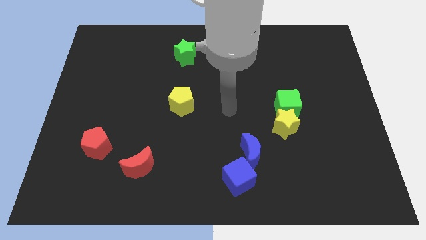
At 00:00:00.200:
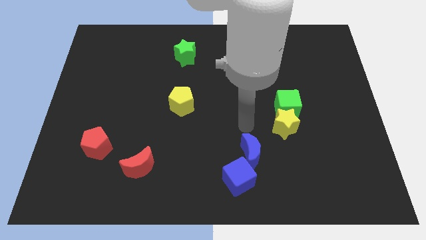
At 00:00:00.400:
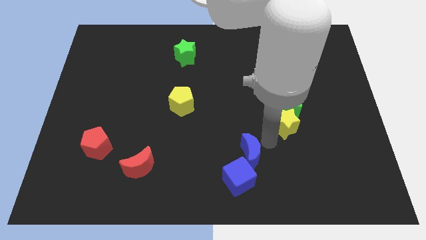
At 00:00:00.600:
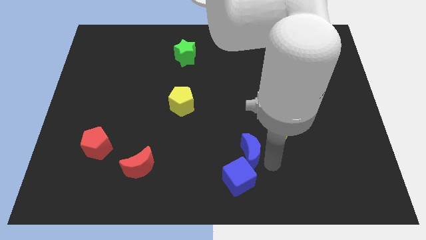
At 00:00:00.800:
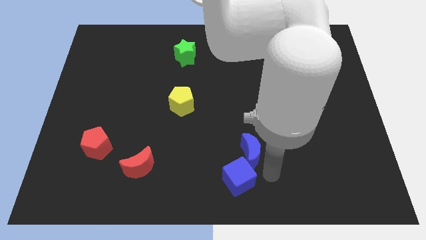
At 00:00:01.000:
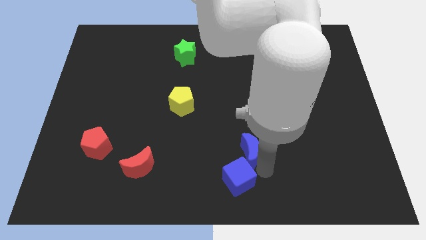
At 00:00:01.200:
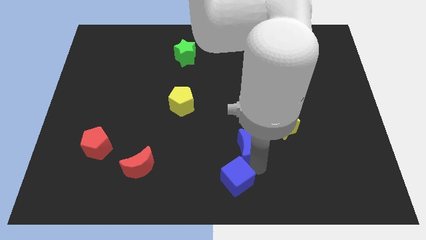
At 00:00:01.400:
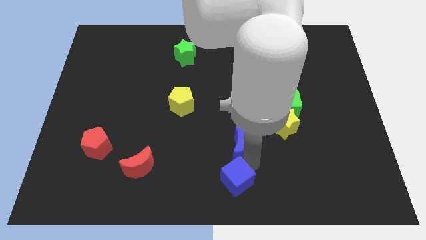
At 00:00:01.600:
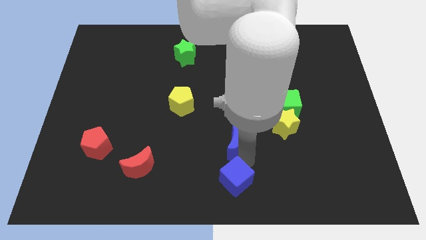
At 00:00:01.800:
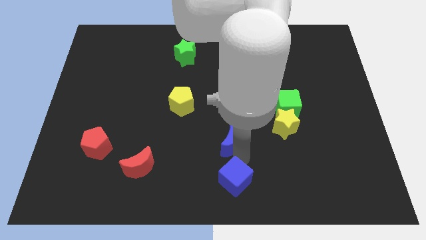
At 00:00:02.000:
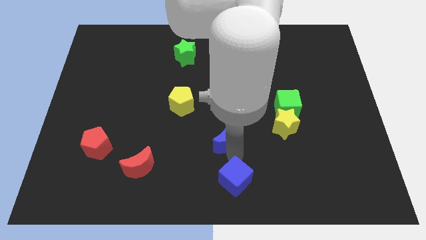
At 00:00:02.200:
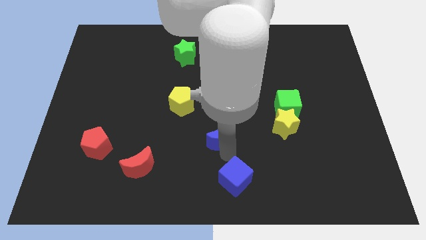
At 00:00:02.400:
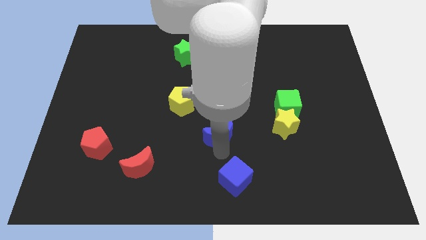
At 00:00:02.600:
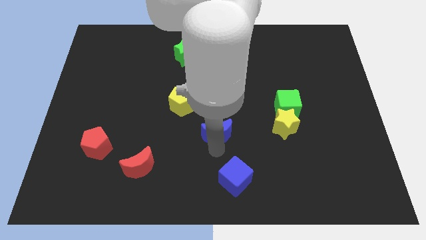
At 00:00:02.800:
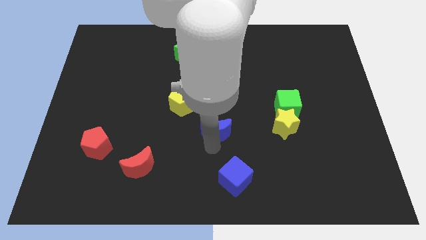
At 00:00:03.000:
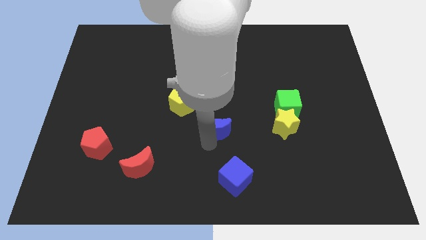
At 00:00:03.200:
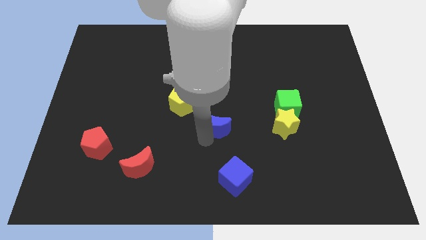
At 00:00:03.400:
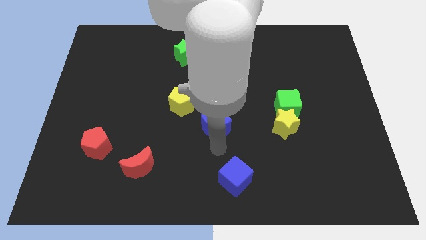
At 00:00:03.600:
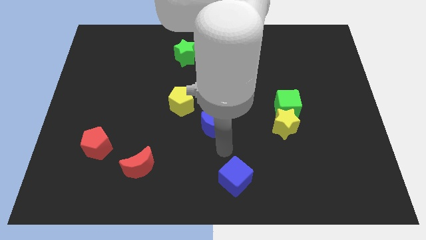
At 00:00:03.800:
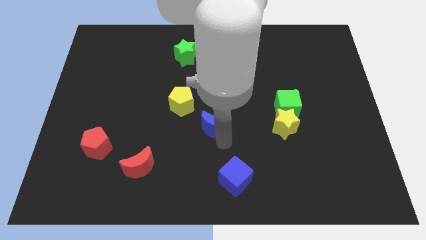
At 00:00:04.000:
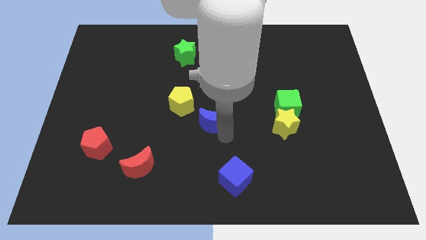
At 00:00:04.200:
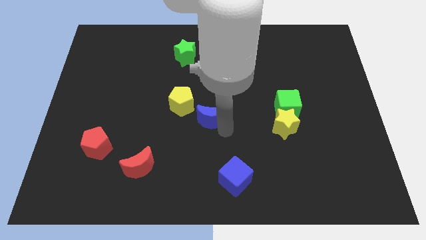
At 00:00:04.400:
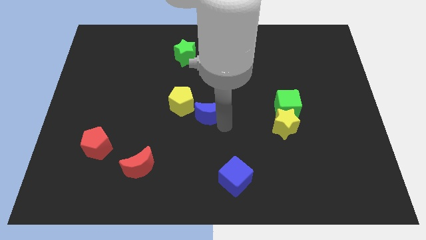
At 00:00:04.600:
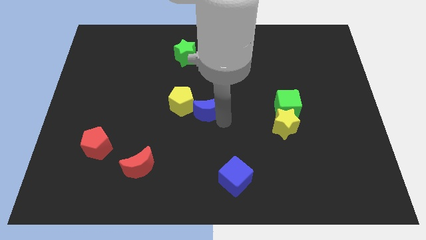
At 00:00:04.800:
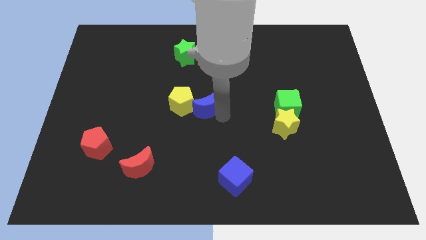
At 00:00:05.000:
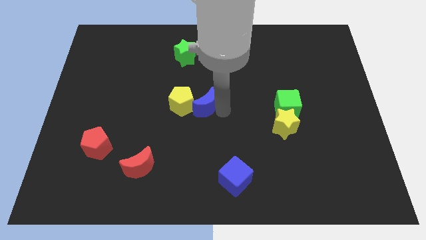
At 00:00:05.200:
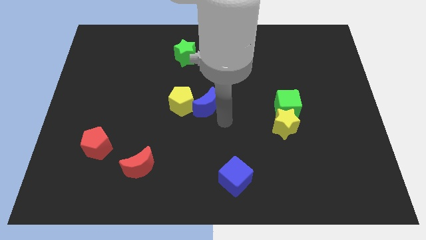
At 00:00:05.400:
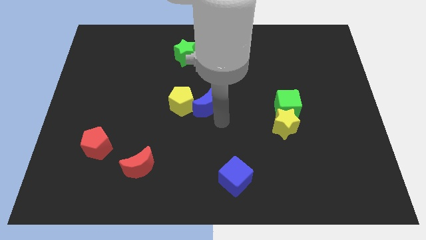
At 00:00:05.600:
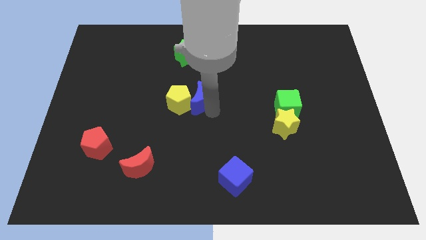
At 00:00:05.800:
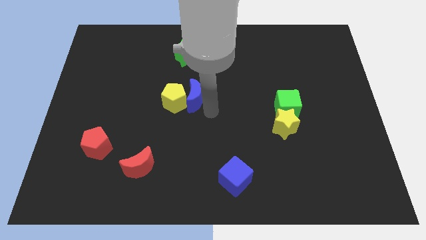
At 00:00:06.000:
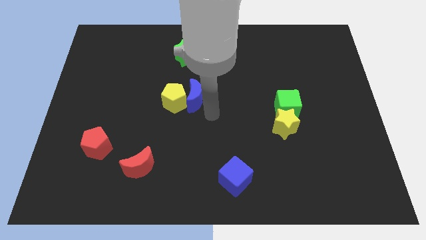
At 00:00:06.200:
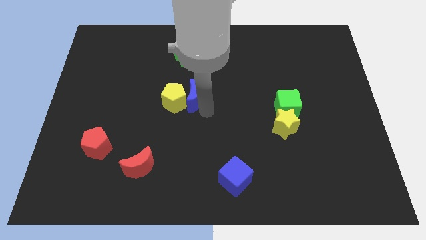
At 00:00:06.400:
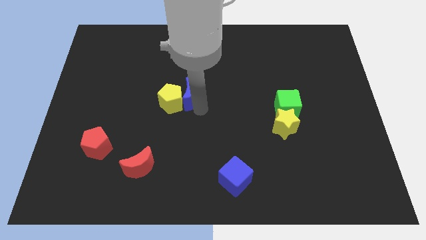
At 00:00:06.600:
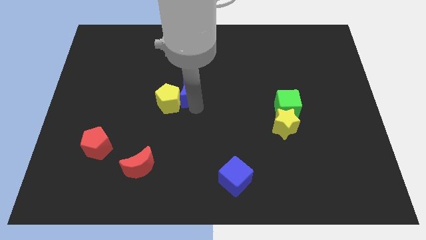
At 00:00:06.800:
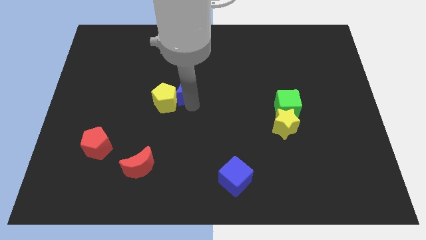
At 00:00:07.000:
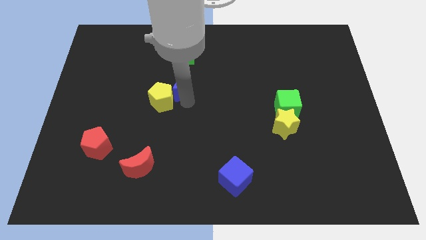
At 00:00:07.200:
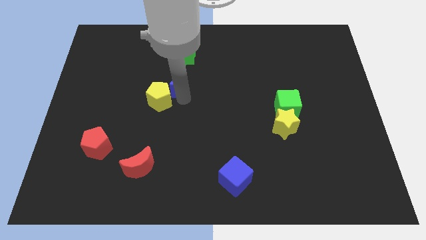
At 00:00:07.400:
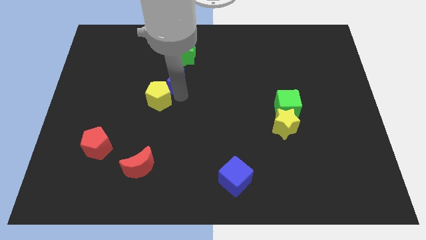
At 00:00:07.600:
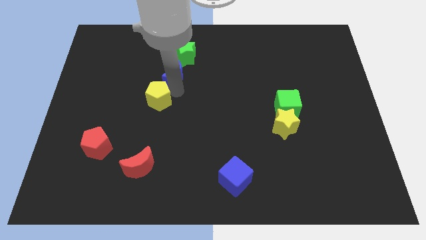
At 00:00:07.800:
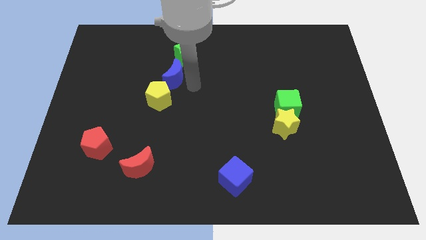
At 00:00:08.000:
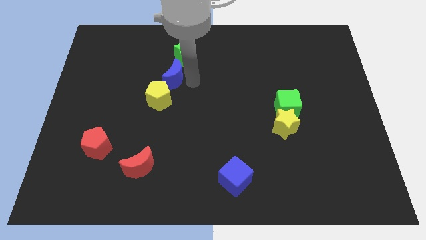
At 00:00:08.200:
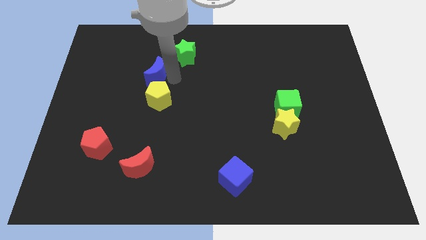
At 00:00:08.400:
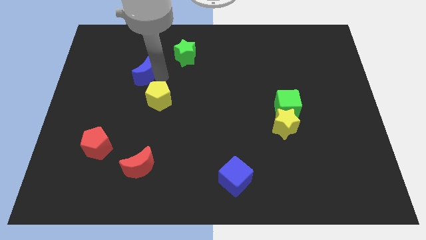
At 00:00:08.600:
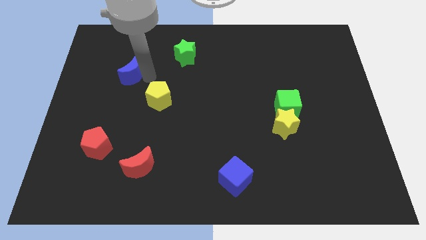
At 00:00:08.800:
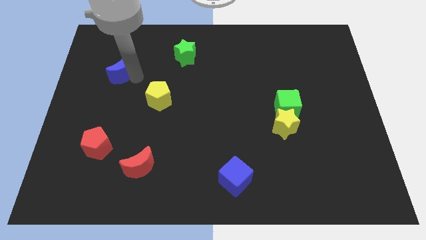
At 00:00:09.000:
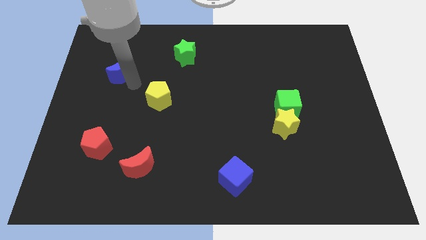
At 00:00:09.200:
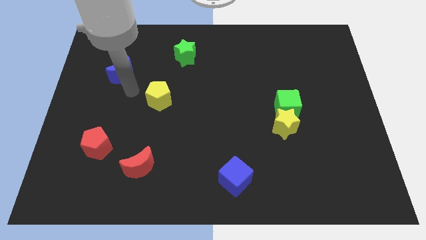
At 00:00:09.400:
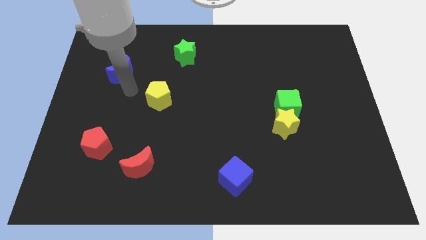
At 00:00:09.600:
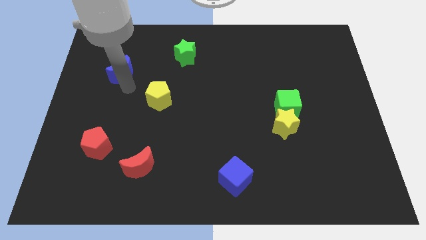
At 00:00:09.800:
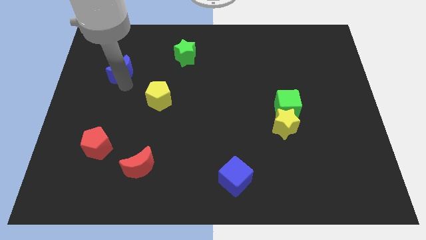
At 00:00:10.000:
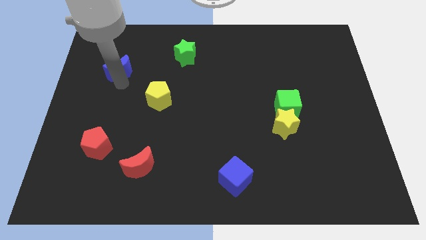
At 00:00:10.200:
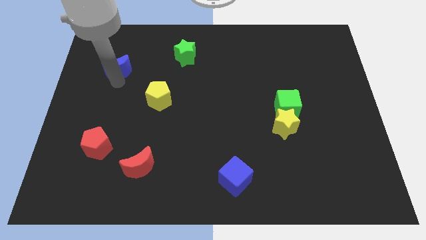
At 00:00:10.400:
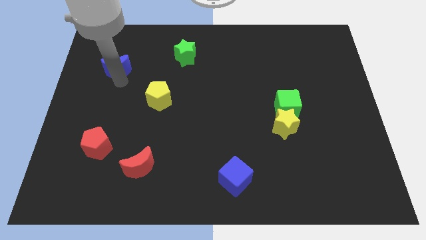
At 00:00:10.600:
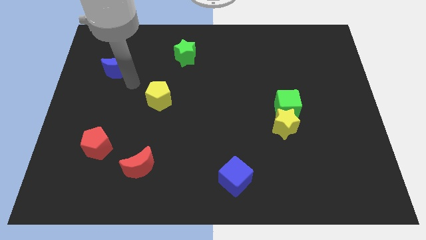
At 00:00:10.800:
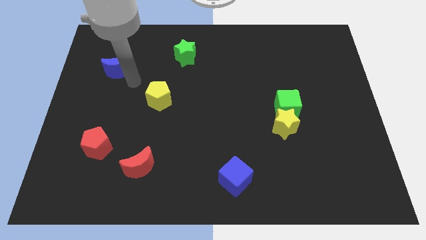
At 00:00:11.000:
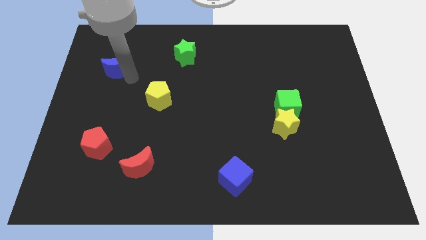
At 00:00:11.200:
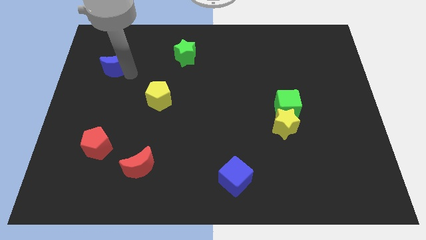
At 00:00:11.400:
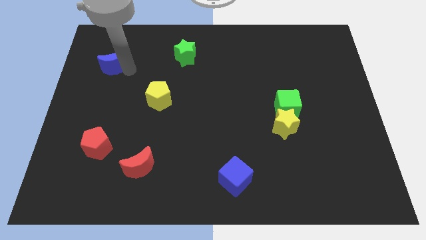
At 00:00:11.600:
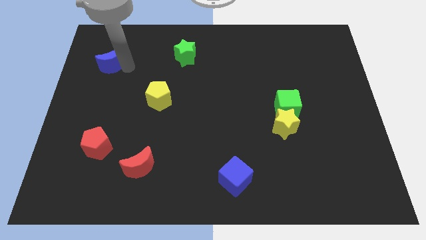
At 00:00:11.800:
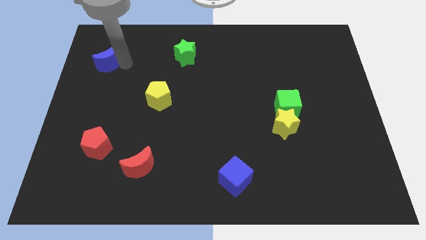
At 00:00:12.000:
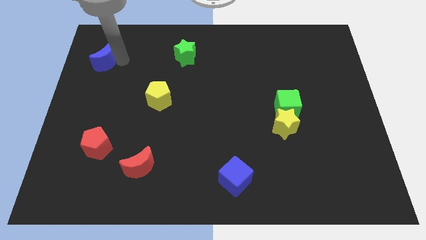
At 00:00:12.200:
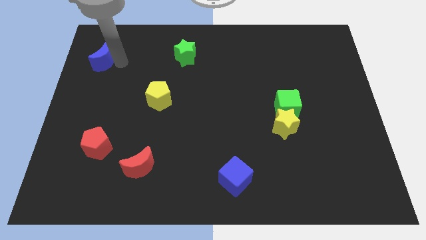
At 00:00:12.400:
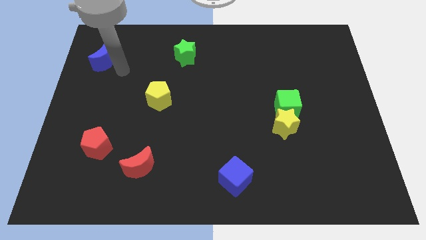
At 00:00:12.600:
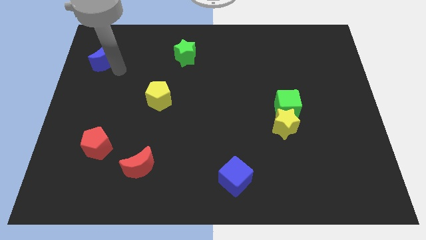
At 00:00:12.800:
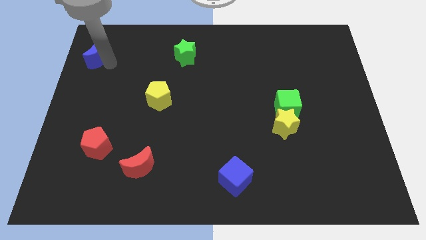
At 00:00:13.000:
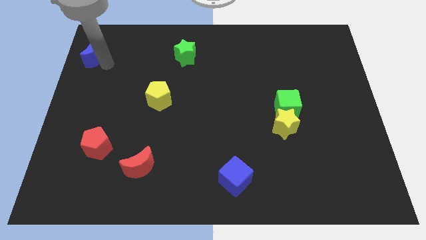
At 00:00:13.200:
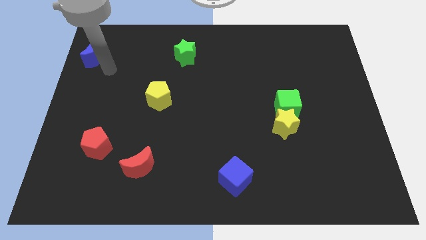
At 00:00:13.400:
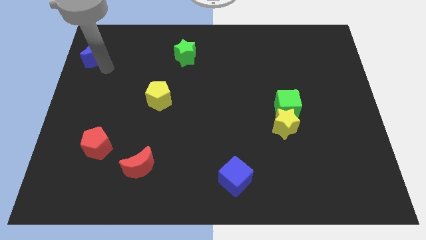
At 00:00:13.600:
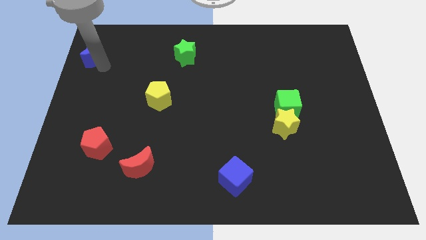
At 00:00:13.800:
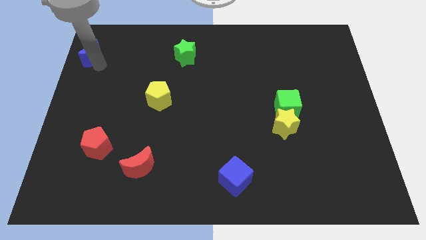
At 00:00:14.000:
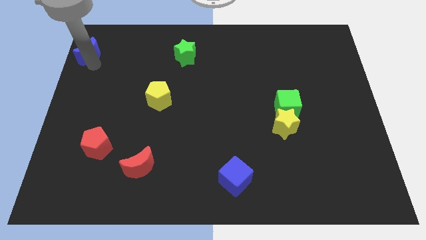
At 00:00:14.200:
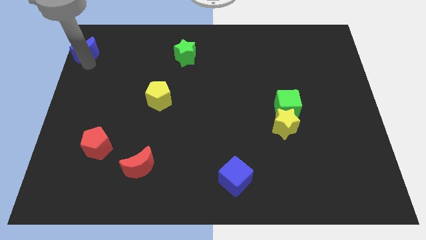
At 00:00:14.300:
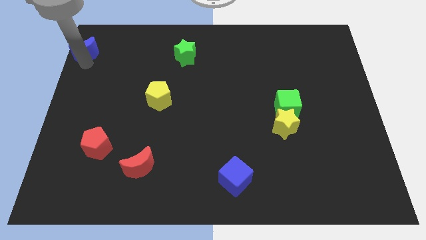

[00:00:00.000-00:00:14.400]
slide the blue moon to the top left corner
